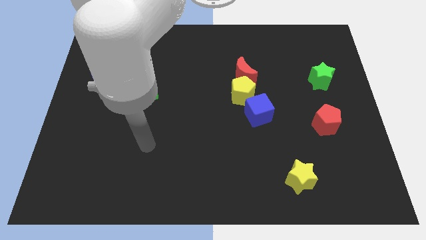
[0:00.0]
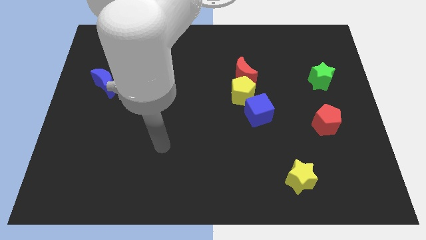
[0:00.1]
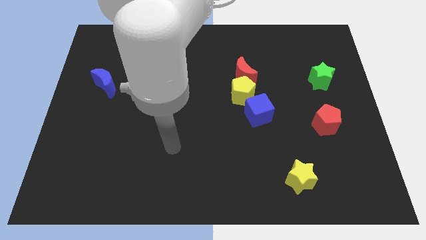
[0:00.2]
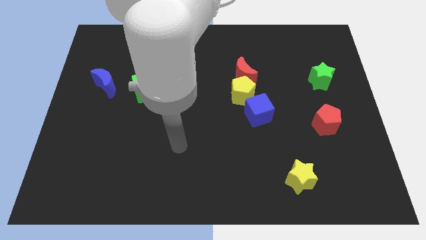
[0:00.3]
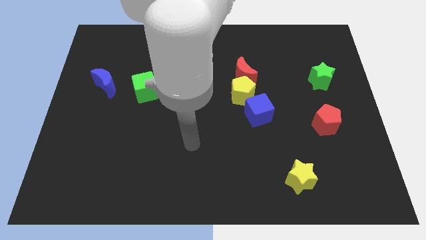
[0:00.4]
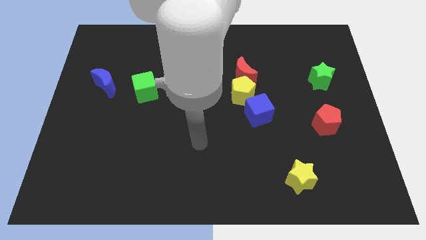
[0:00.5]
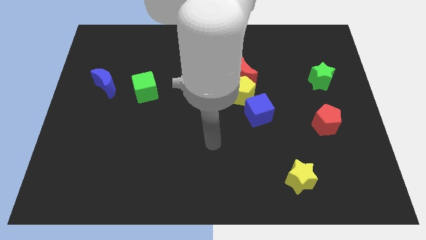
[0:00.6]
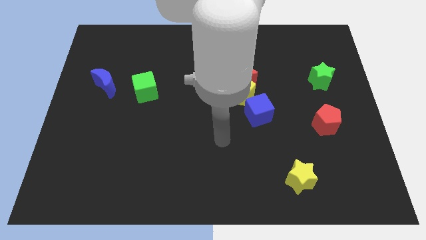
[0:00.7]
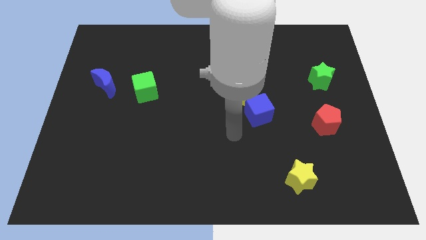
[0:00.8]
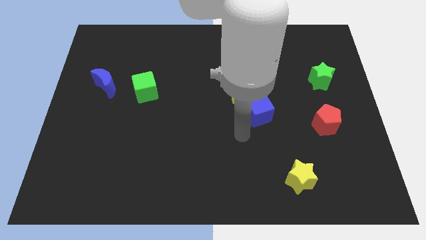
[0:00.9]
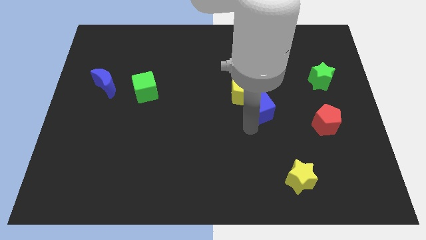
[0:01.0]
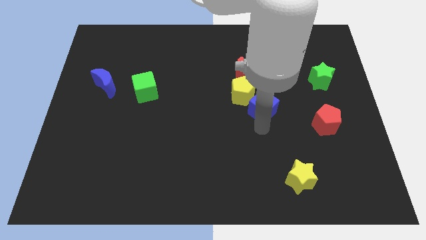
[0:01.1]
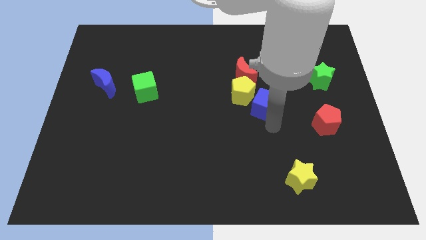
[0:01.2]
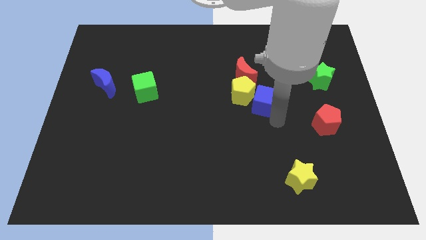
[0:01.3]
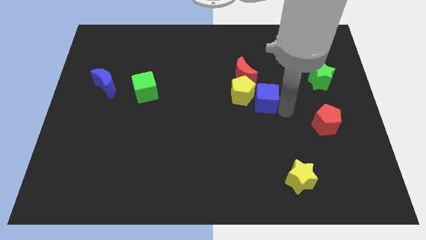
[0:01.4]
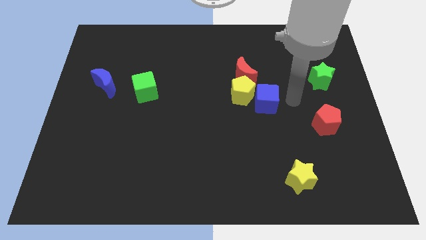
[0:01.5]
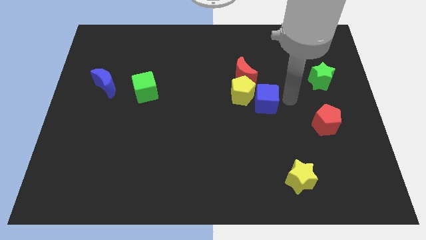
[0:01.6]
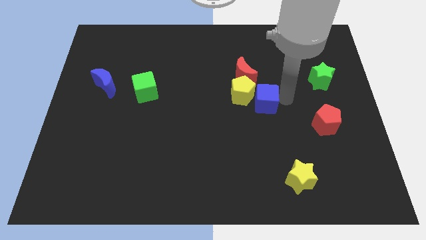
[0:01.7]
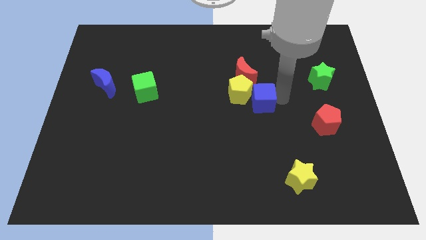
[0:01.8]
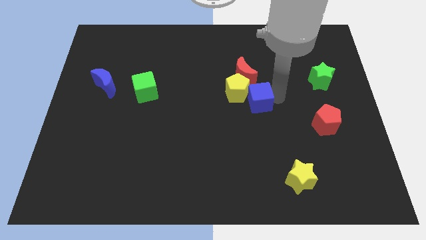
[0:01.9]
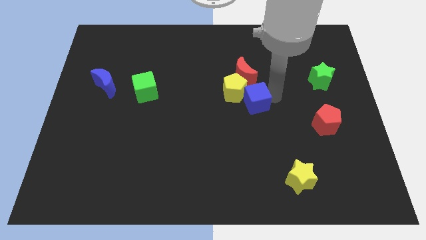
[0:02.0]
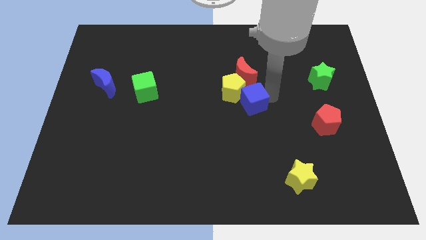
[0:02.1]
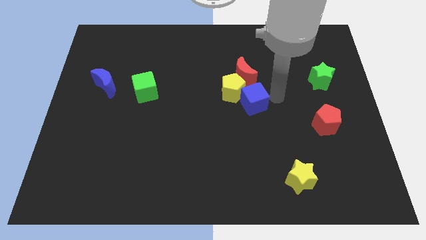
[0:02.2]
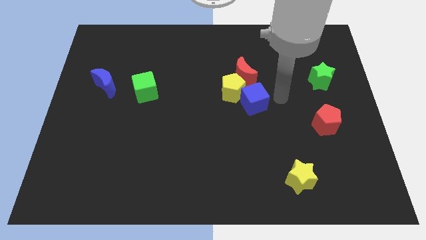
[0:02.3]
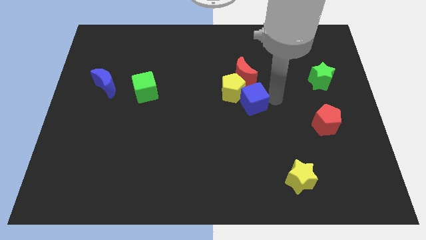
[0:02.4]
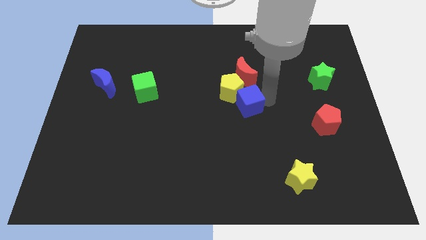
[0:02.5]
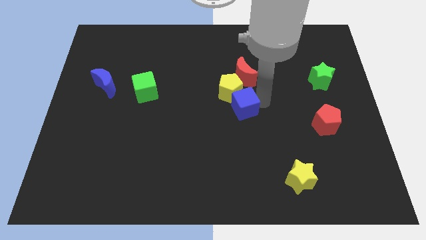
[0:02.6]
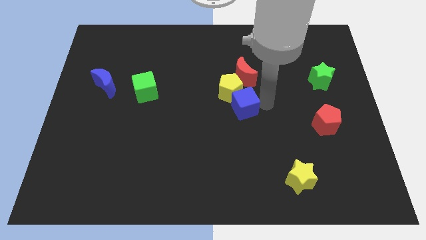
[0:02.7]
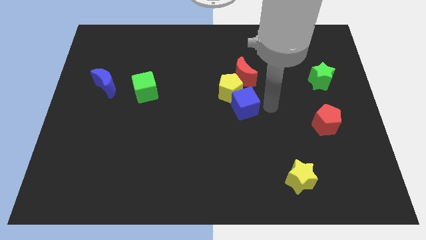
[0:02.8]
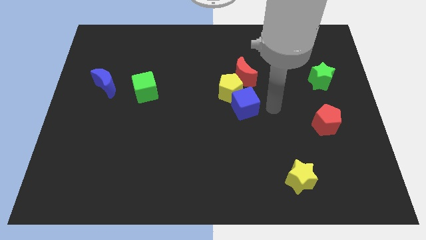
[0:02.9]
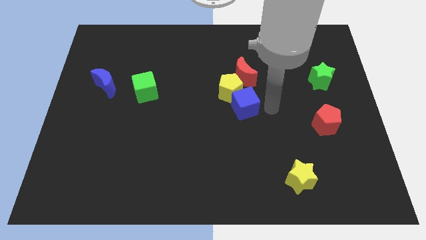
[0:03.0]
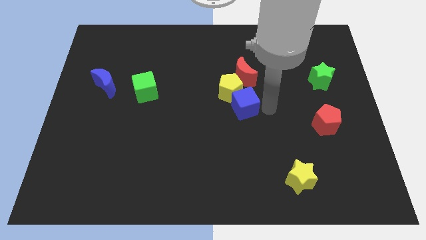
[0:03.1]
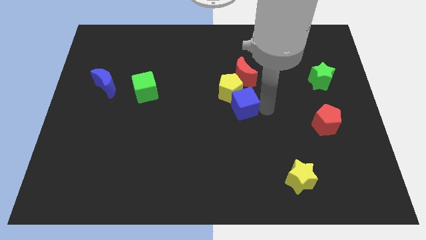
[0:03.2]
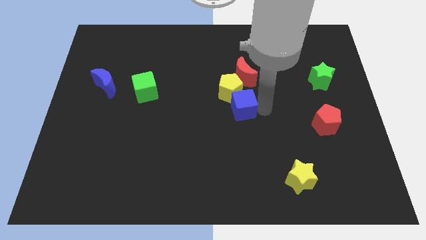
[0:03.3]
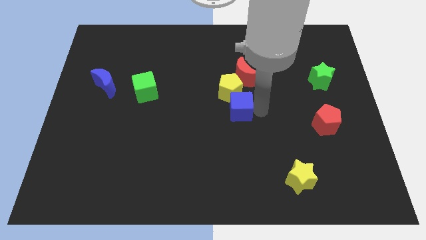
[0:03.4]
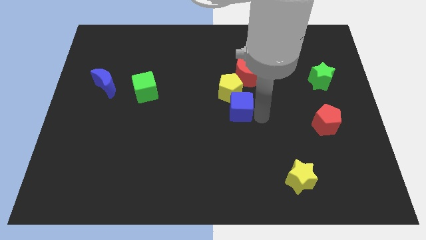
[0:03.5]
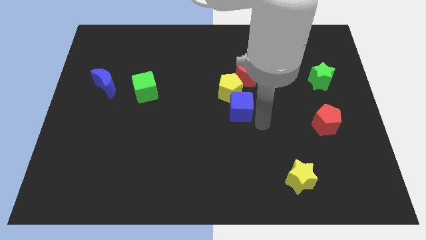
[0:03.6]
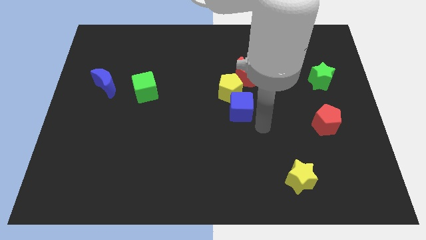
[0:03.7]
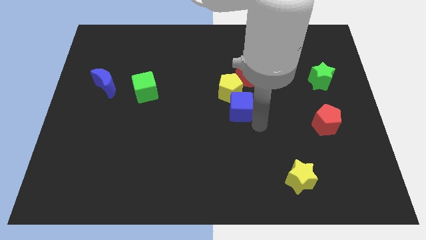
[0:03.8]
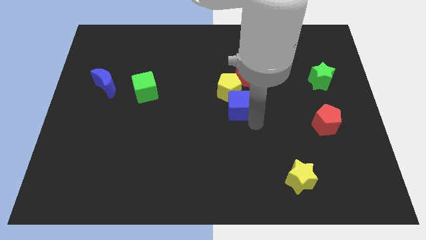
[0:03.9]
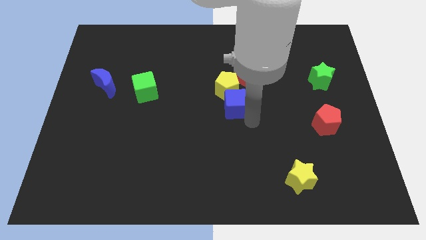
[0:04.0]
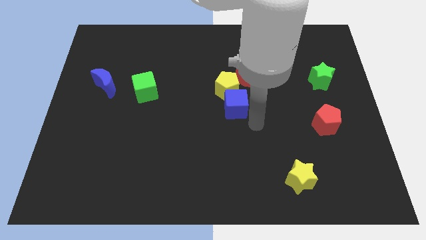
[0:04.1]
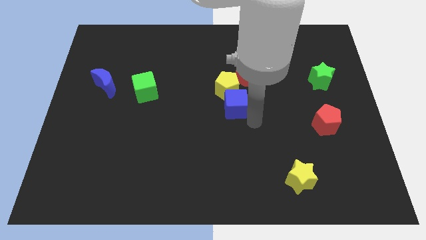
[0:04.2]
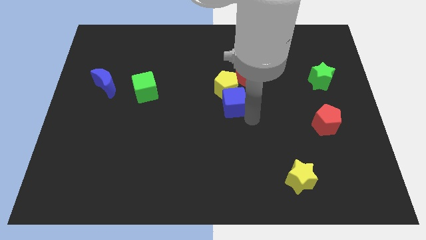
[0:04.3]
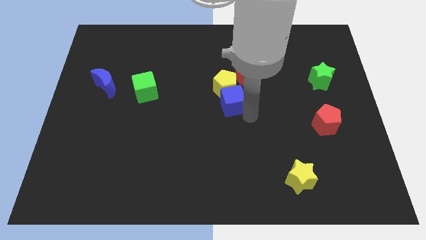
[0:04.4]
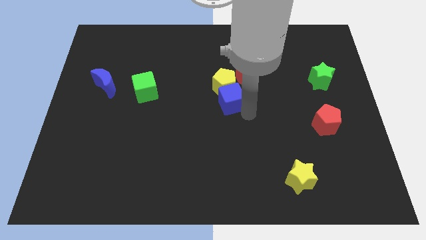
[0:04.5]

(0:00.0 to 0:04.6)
slide the blue cube somewhat up and then left

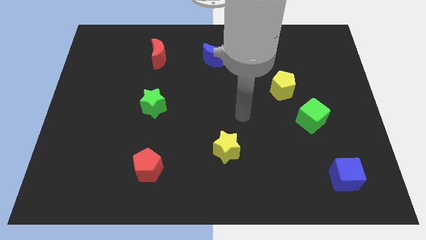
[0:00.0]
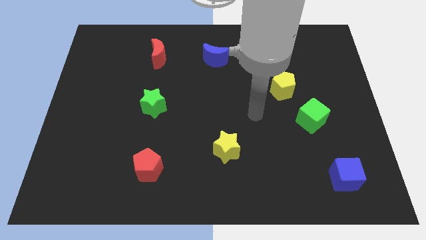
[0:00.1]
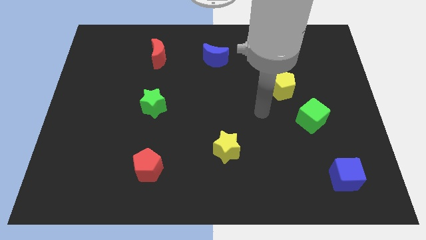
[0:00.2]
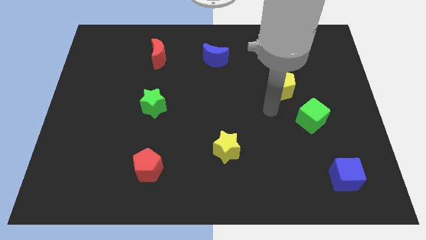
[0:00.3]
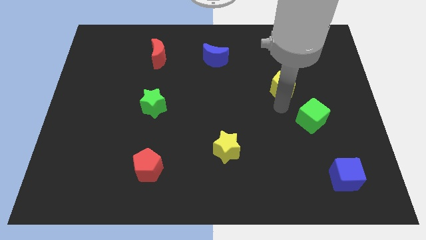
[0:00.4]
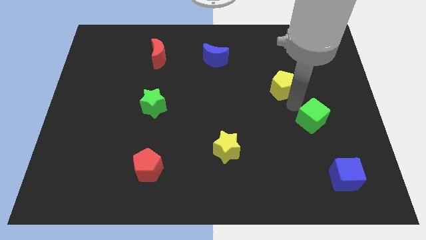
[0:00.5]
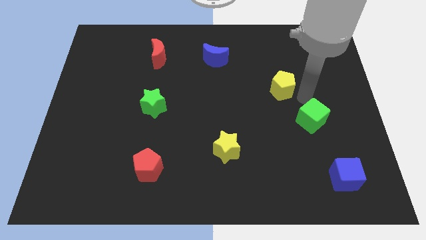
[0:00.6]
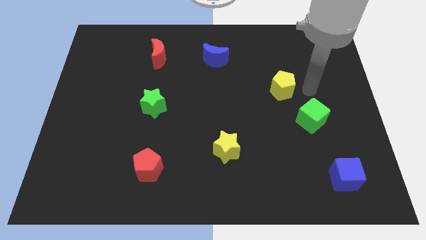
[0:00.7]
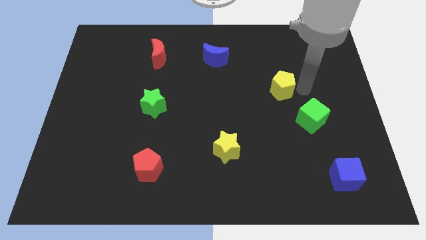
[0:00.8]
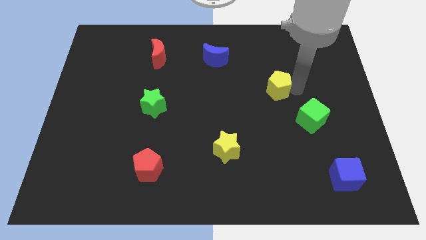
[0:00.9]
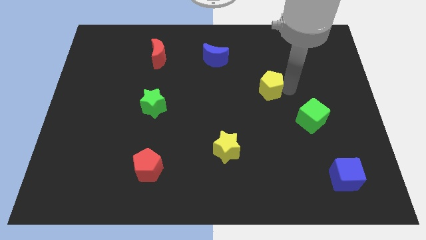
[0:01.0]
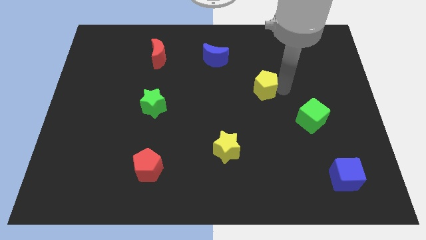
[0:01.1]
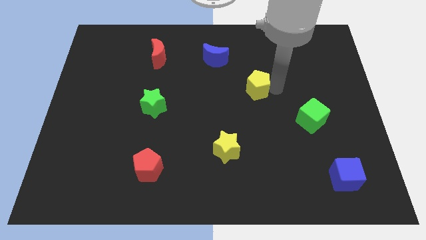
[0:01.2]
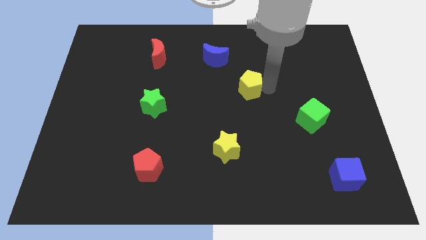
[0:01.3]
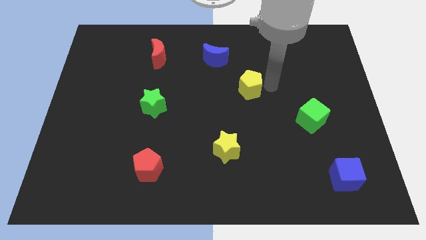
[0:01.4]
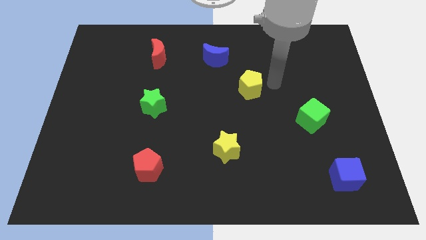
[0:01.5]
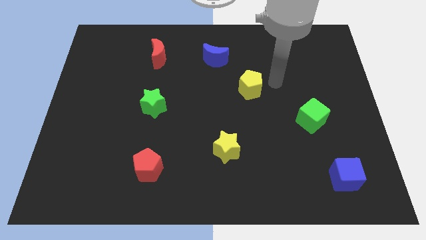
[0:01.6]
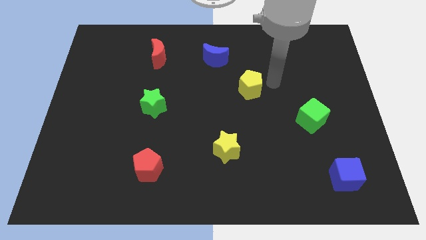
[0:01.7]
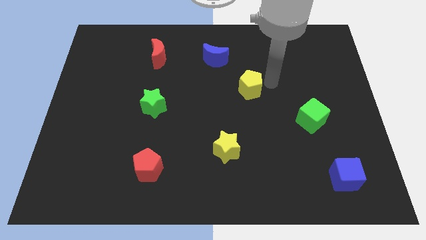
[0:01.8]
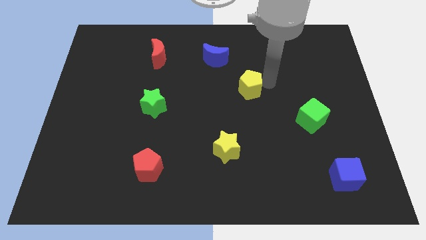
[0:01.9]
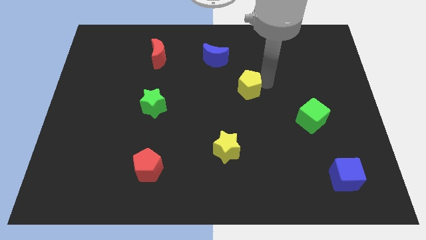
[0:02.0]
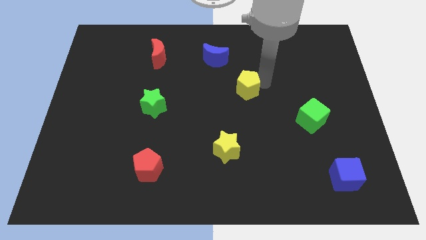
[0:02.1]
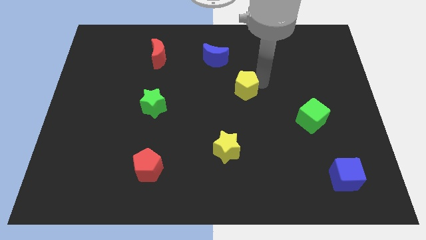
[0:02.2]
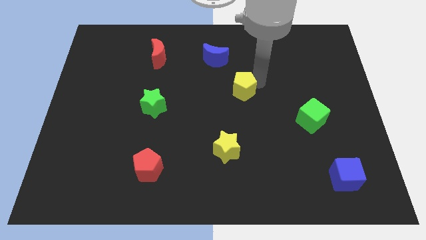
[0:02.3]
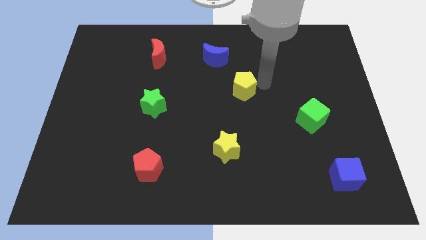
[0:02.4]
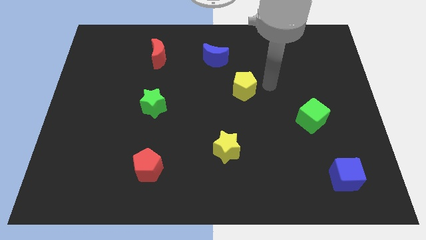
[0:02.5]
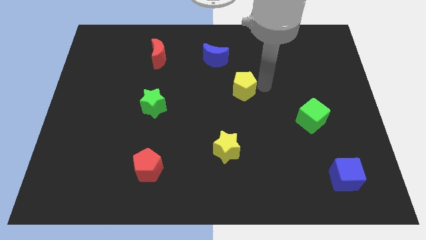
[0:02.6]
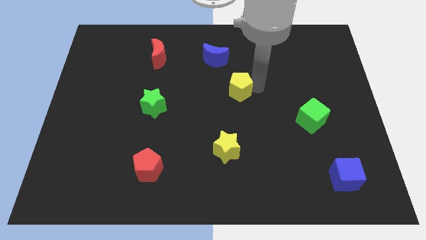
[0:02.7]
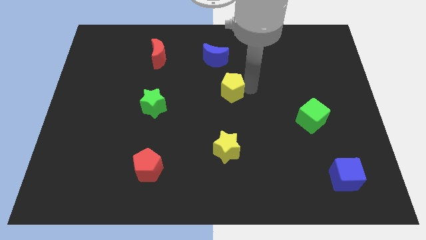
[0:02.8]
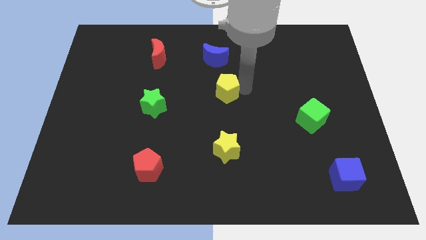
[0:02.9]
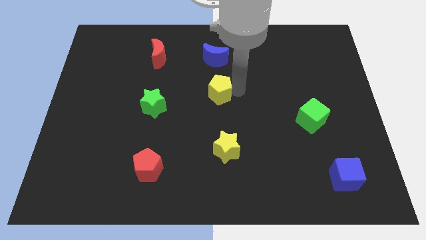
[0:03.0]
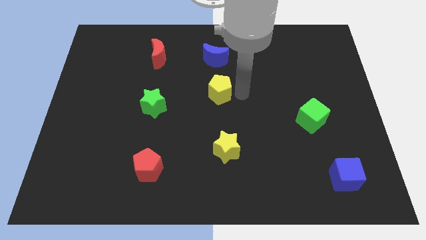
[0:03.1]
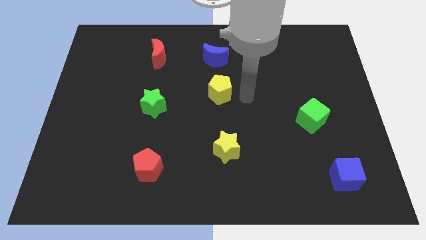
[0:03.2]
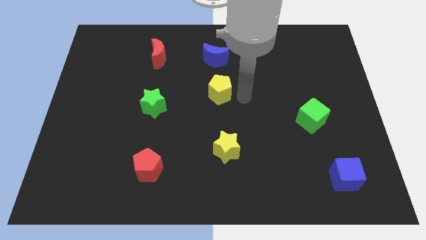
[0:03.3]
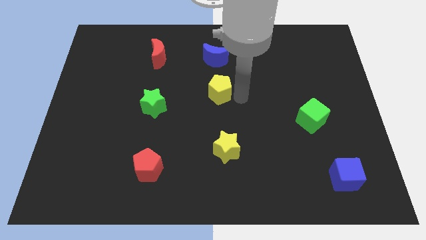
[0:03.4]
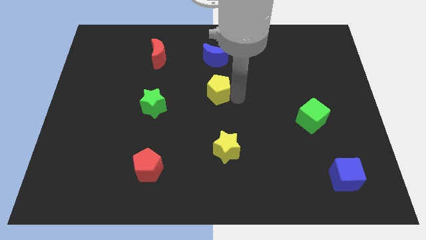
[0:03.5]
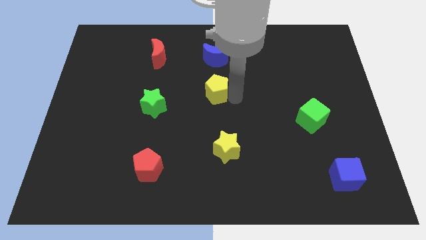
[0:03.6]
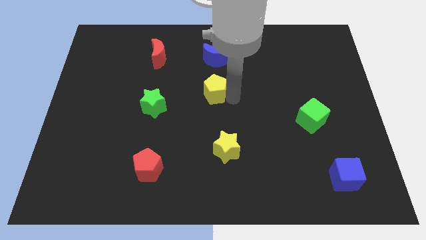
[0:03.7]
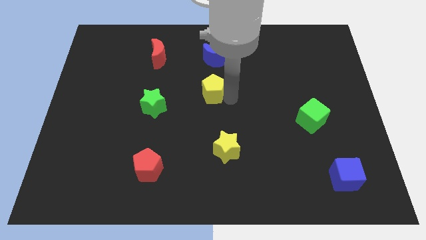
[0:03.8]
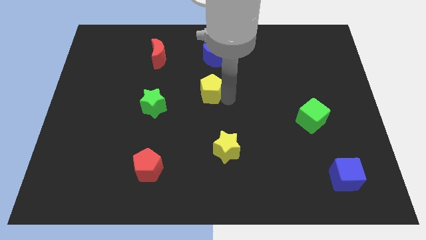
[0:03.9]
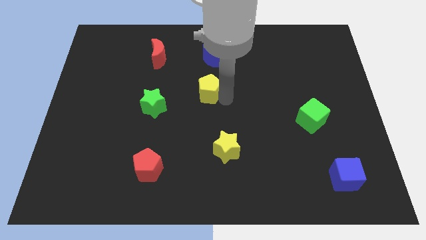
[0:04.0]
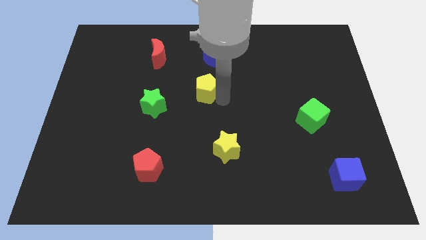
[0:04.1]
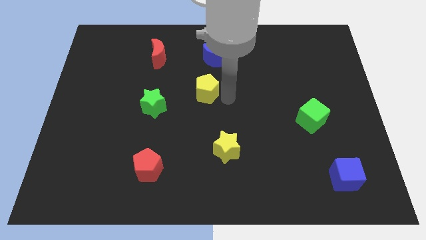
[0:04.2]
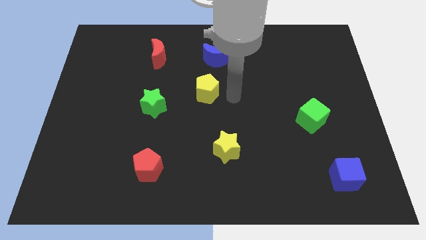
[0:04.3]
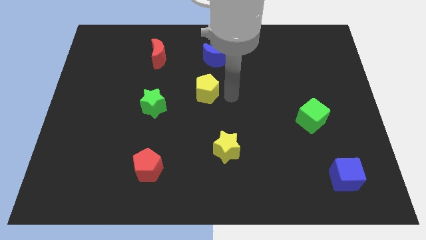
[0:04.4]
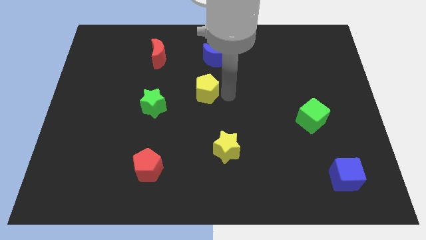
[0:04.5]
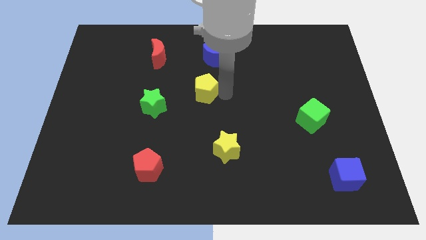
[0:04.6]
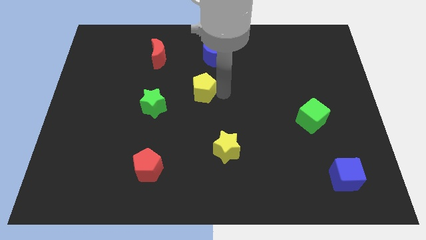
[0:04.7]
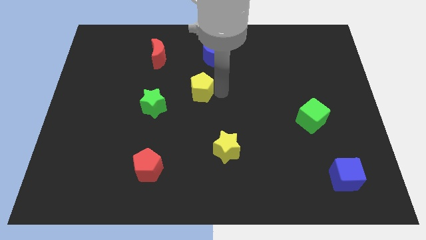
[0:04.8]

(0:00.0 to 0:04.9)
push the yellow pentagon to the left
